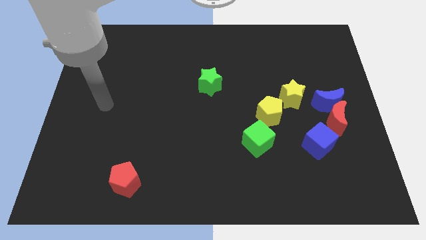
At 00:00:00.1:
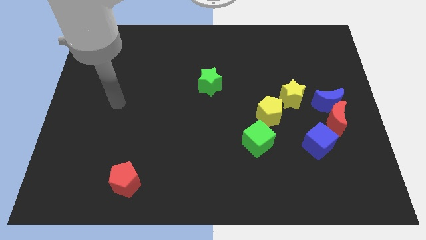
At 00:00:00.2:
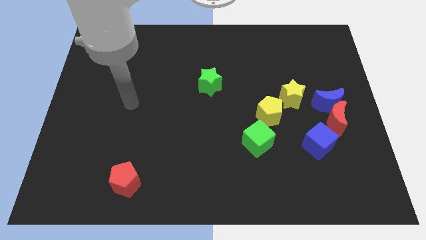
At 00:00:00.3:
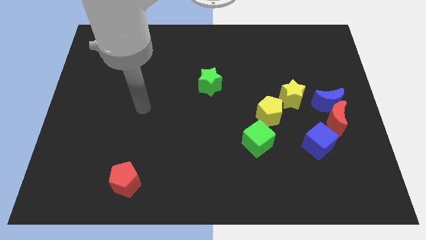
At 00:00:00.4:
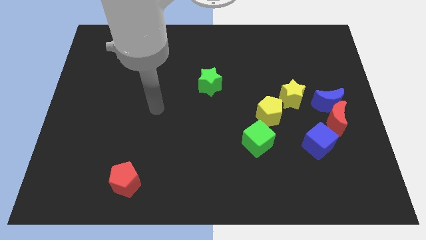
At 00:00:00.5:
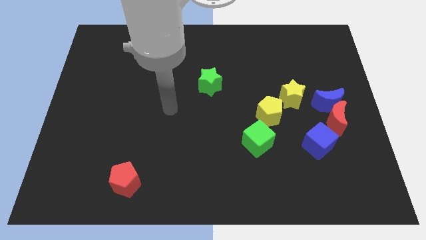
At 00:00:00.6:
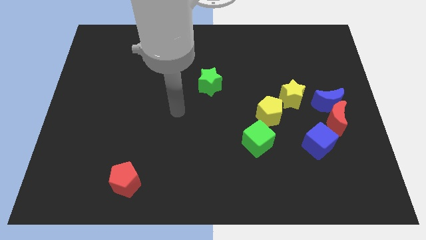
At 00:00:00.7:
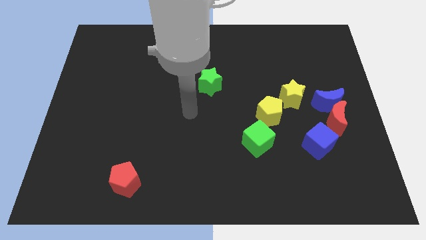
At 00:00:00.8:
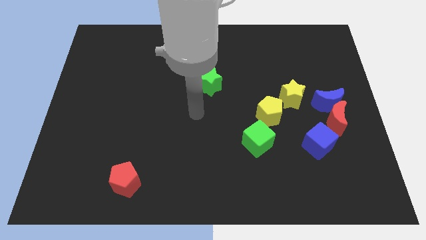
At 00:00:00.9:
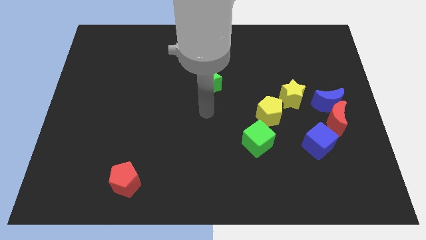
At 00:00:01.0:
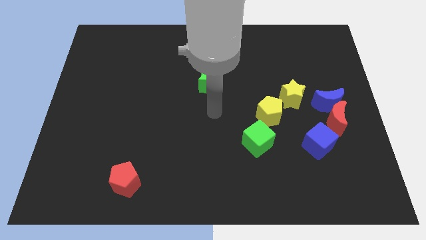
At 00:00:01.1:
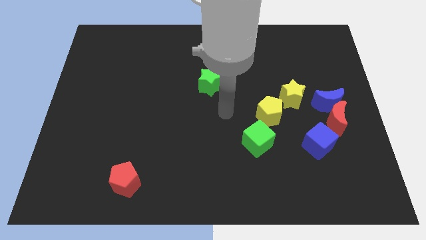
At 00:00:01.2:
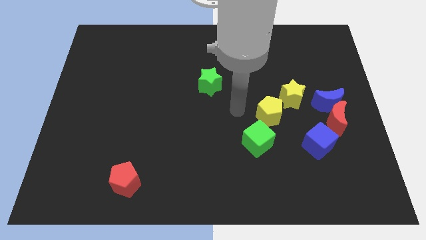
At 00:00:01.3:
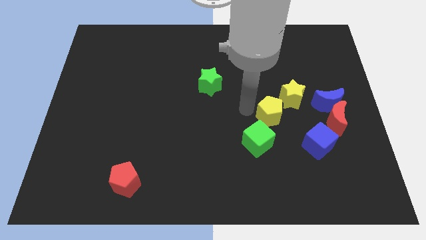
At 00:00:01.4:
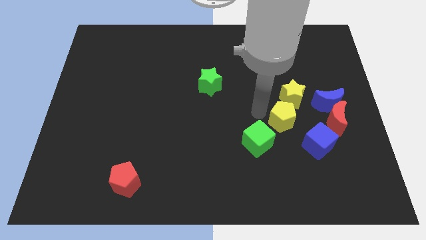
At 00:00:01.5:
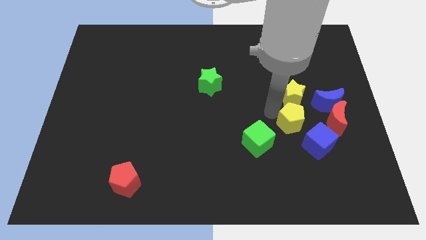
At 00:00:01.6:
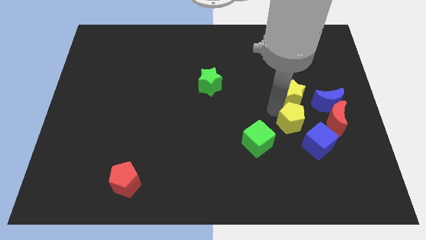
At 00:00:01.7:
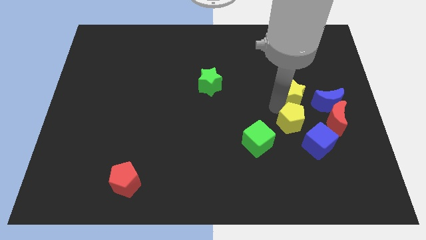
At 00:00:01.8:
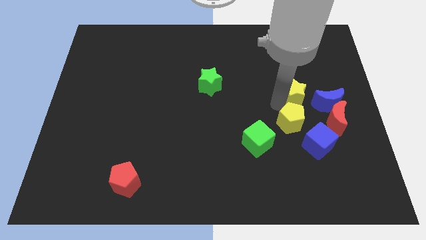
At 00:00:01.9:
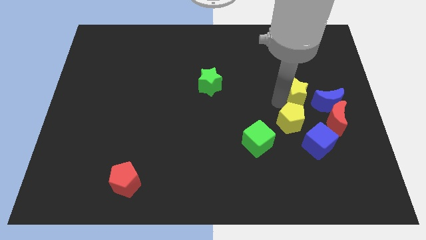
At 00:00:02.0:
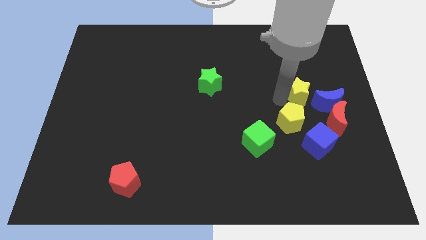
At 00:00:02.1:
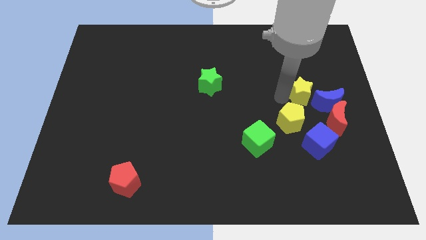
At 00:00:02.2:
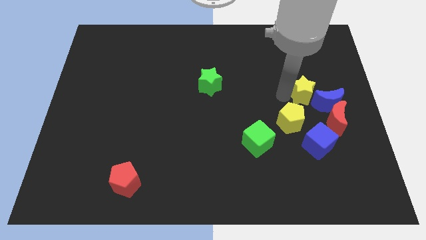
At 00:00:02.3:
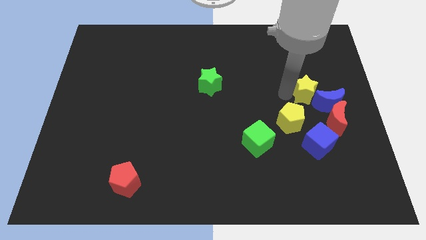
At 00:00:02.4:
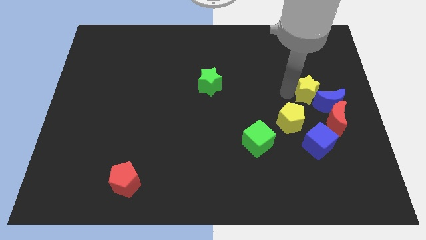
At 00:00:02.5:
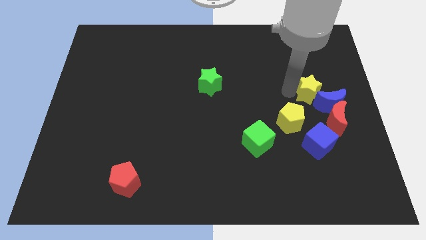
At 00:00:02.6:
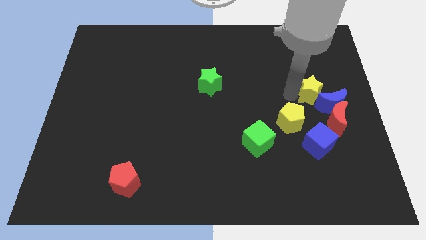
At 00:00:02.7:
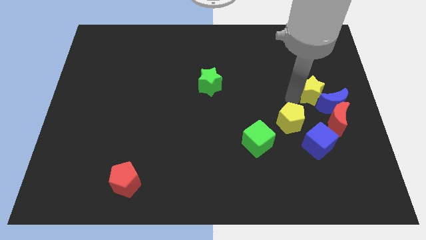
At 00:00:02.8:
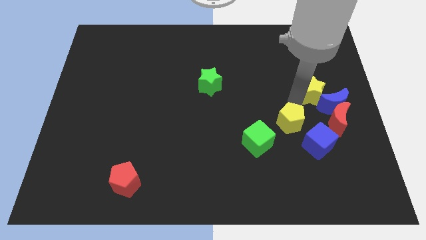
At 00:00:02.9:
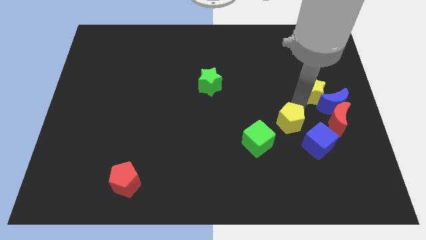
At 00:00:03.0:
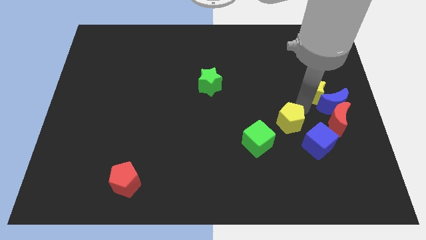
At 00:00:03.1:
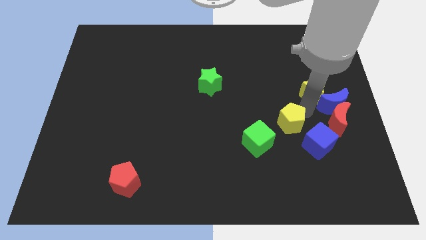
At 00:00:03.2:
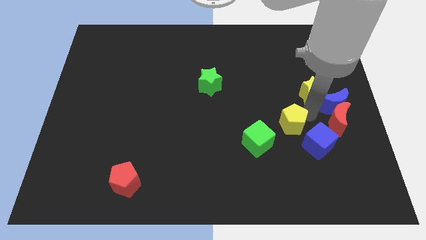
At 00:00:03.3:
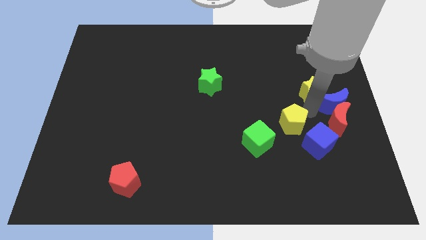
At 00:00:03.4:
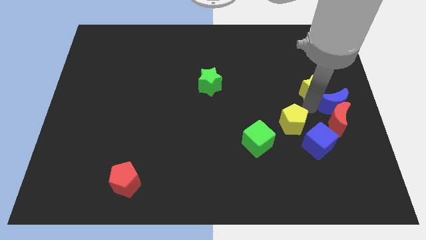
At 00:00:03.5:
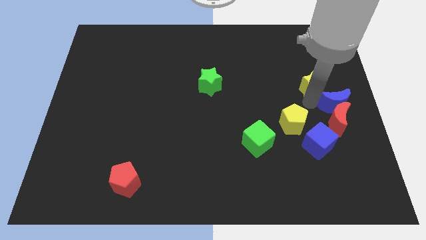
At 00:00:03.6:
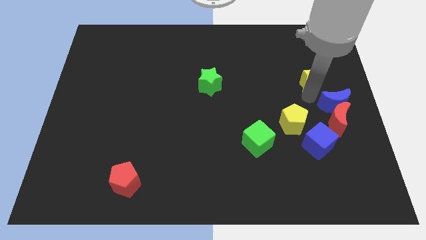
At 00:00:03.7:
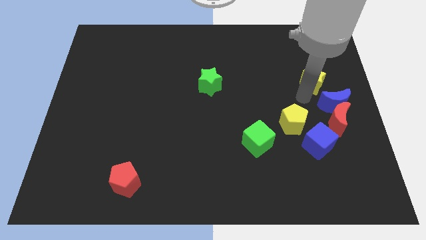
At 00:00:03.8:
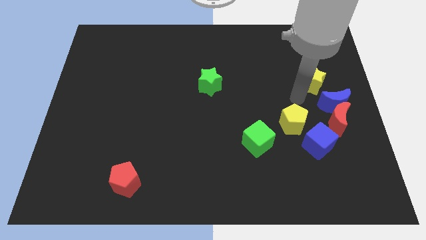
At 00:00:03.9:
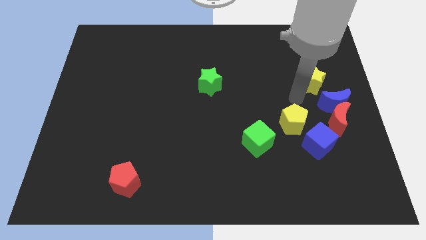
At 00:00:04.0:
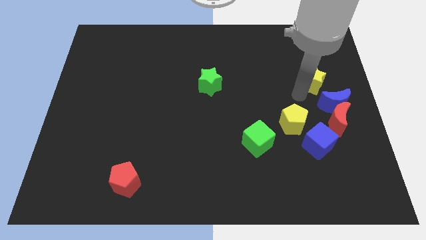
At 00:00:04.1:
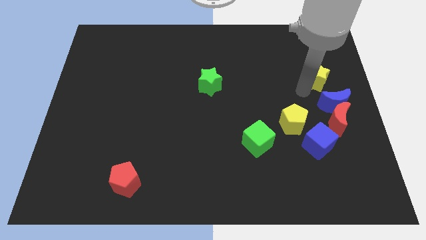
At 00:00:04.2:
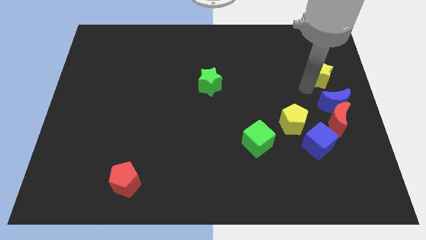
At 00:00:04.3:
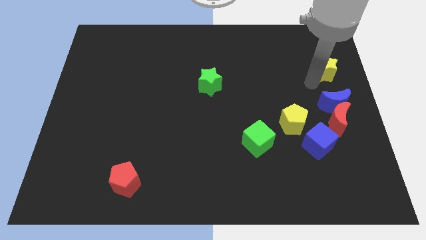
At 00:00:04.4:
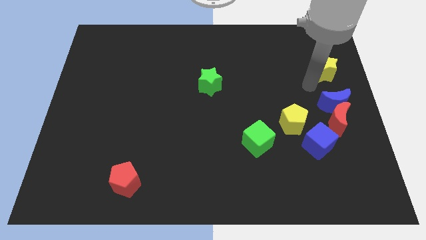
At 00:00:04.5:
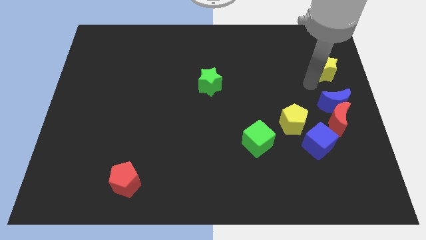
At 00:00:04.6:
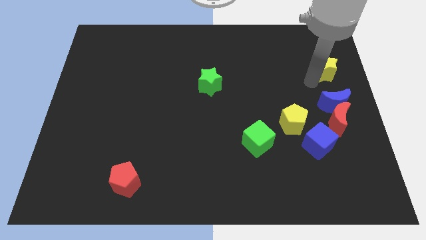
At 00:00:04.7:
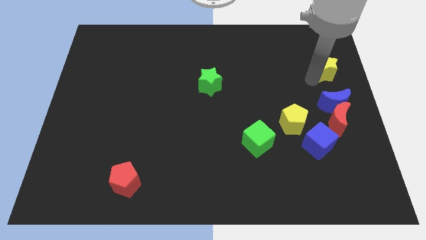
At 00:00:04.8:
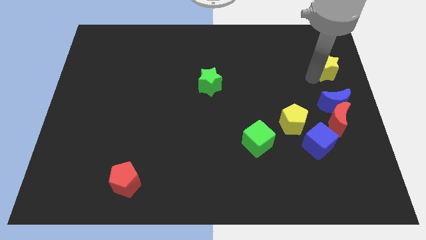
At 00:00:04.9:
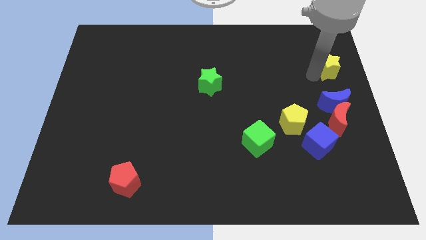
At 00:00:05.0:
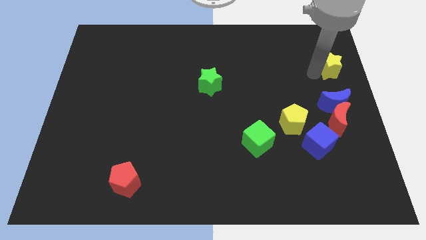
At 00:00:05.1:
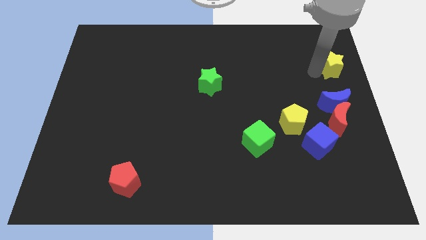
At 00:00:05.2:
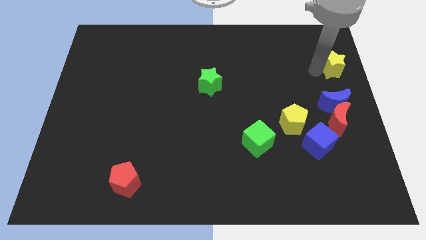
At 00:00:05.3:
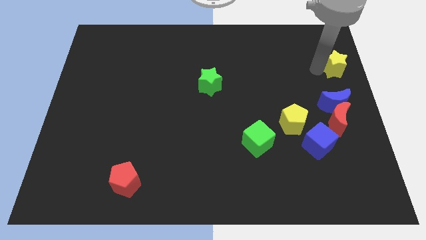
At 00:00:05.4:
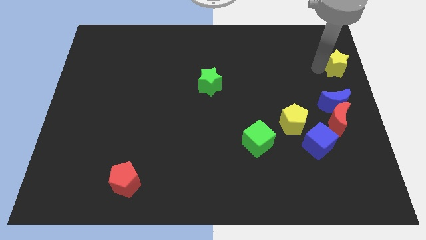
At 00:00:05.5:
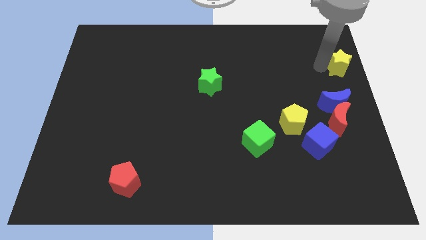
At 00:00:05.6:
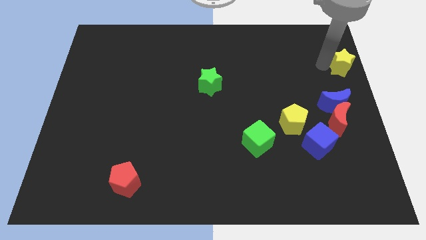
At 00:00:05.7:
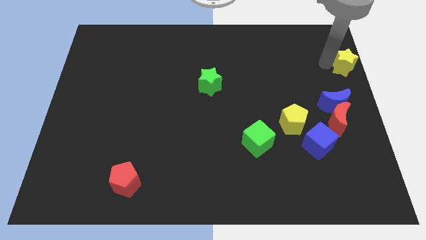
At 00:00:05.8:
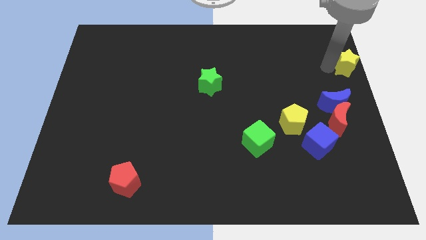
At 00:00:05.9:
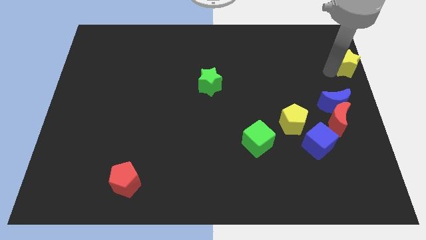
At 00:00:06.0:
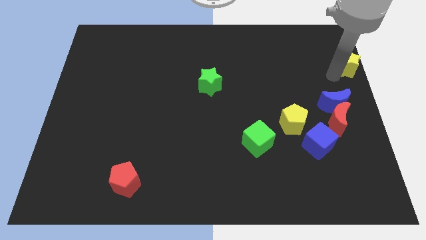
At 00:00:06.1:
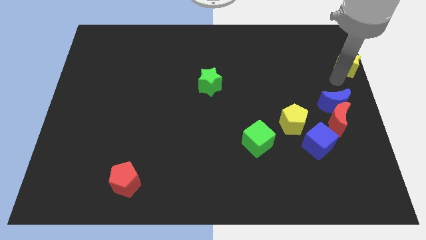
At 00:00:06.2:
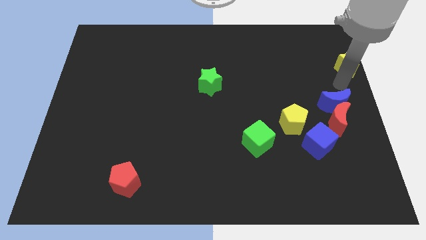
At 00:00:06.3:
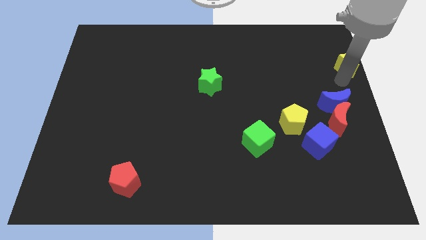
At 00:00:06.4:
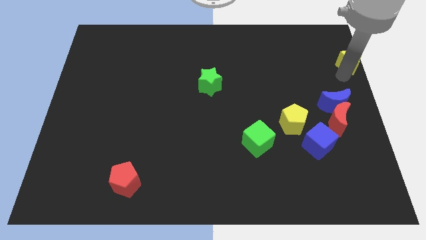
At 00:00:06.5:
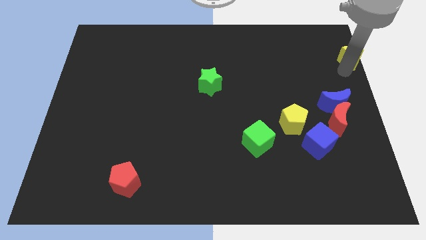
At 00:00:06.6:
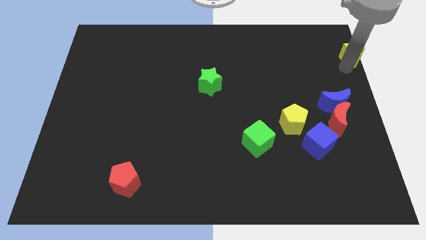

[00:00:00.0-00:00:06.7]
slide the yellow star to the top right corner
